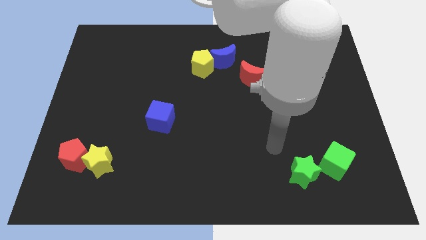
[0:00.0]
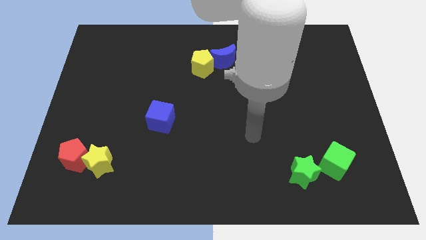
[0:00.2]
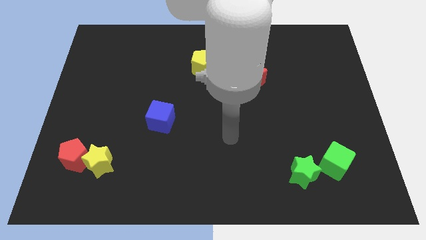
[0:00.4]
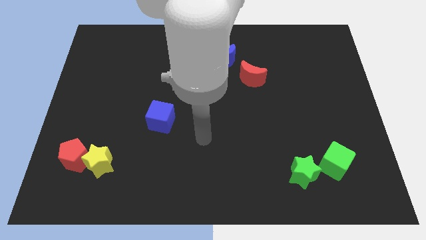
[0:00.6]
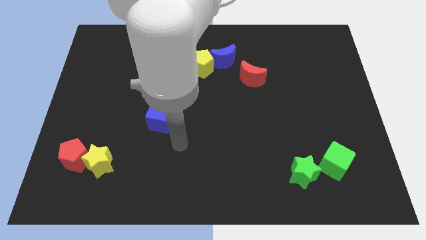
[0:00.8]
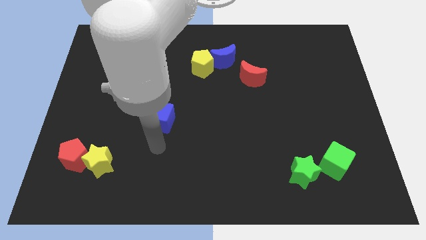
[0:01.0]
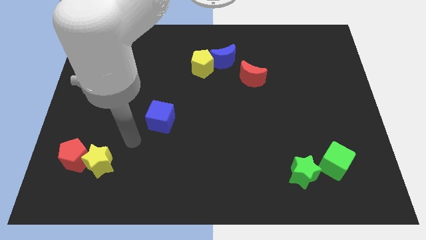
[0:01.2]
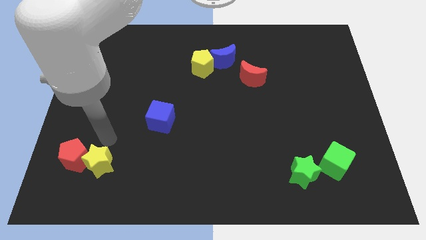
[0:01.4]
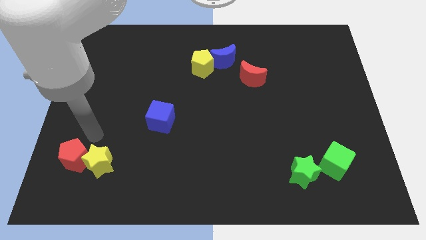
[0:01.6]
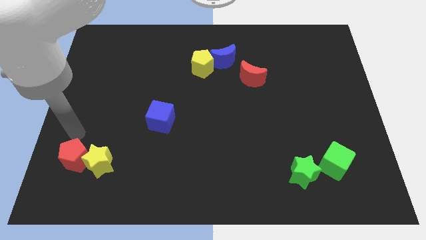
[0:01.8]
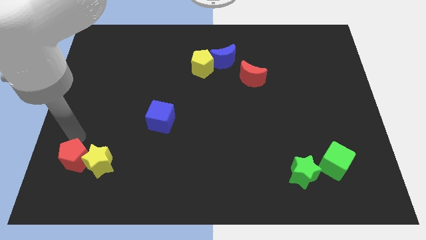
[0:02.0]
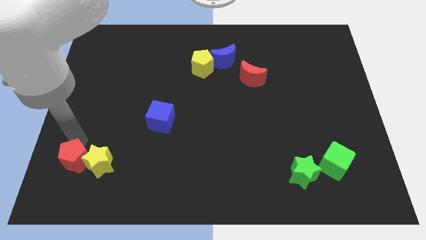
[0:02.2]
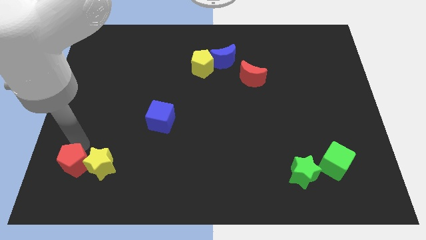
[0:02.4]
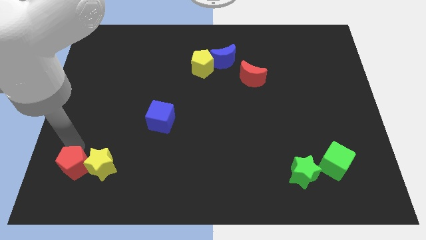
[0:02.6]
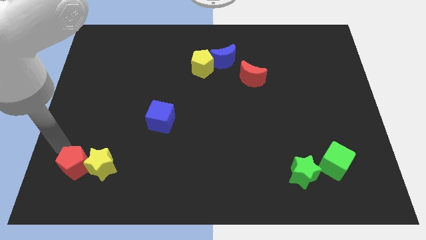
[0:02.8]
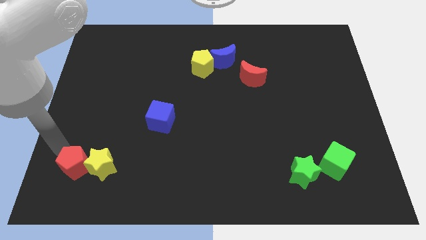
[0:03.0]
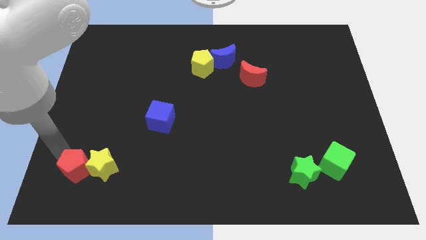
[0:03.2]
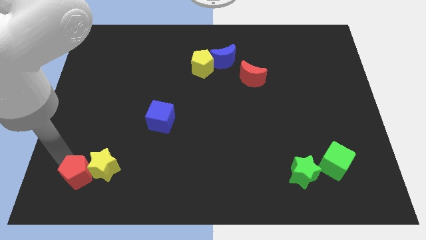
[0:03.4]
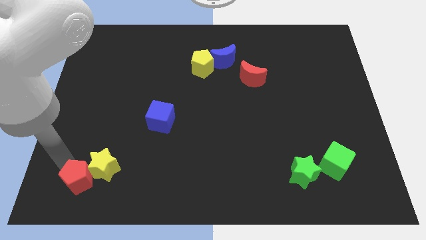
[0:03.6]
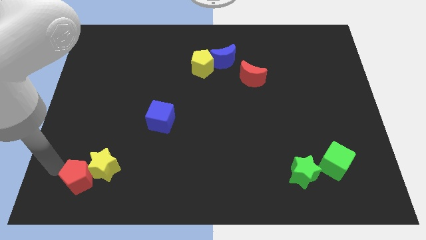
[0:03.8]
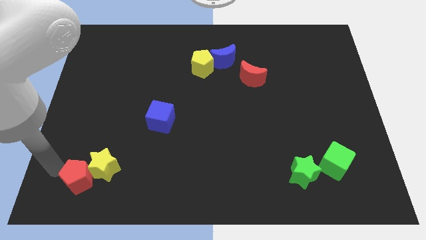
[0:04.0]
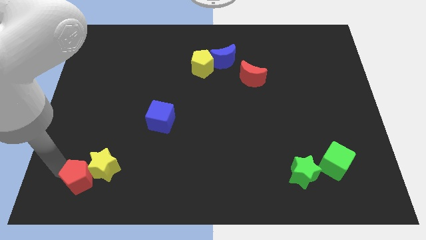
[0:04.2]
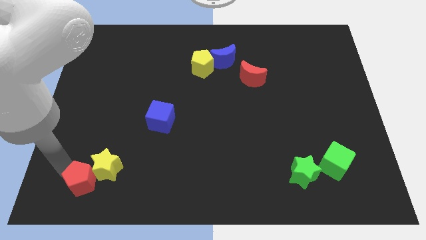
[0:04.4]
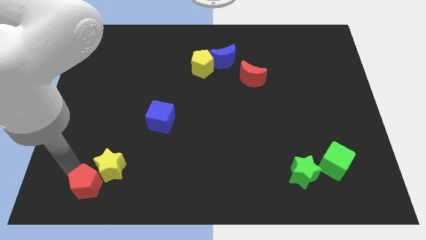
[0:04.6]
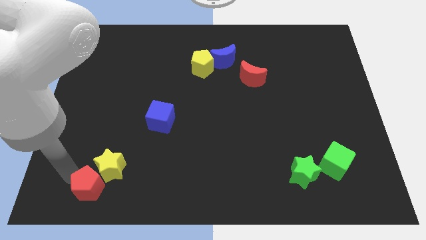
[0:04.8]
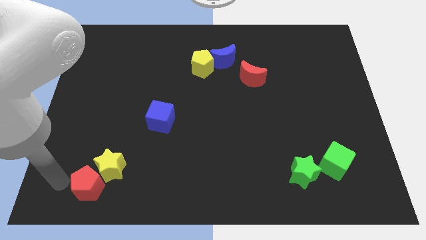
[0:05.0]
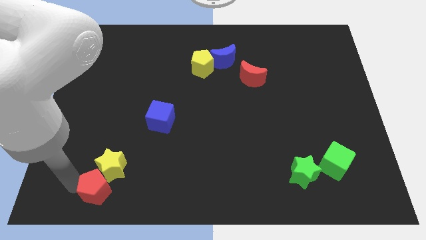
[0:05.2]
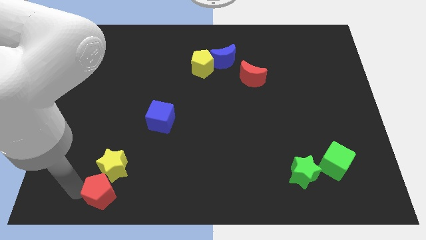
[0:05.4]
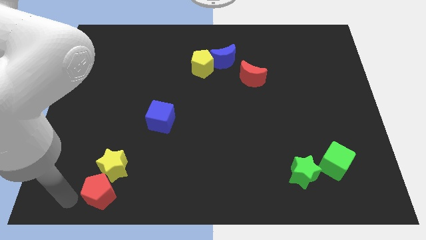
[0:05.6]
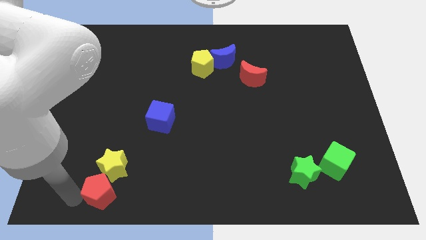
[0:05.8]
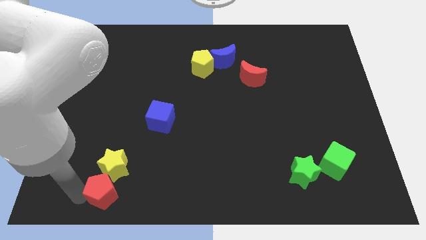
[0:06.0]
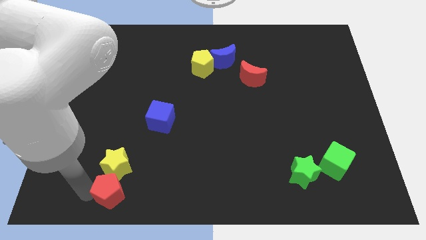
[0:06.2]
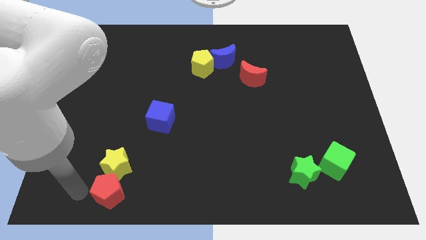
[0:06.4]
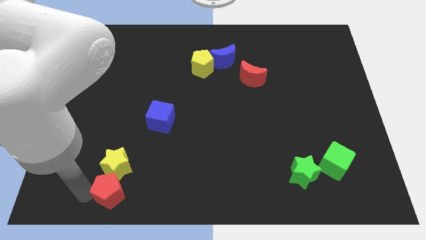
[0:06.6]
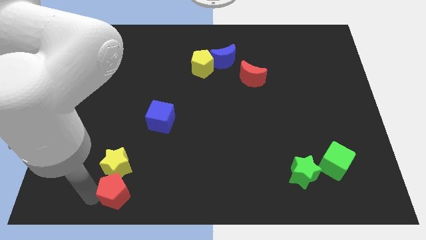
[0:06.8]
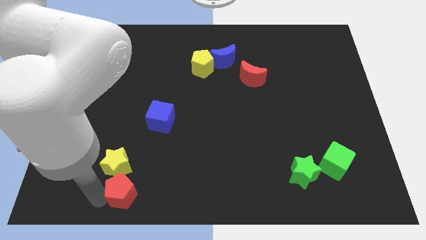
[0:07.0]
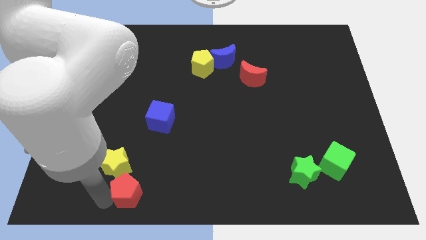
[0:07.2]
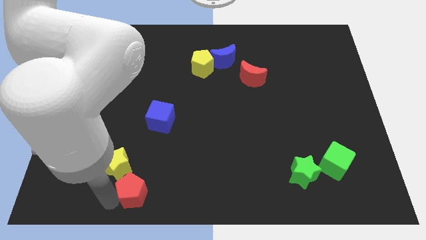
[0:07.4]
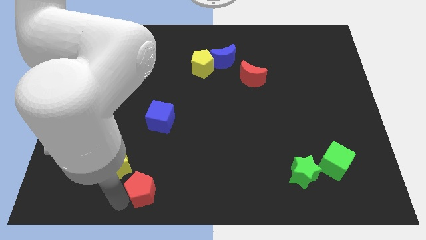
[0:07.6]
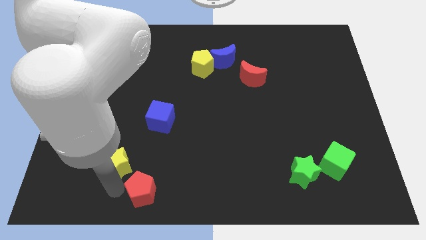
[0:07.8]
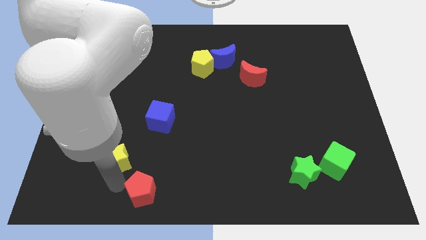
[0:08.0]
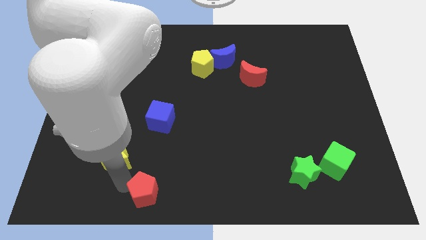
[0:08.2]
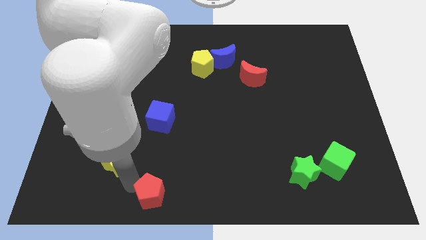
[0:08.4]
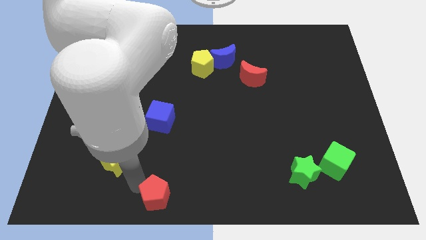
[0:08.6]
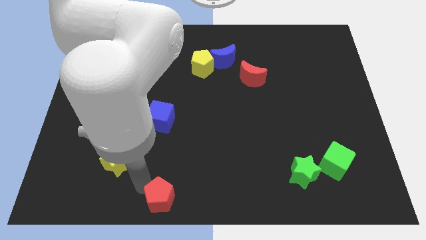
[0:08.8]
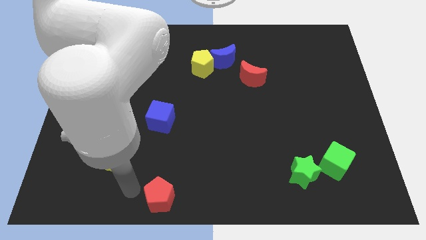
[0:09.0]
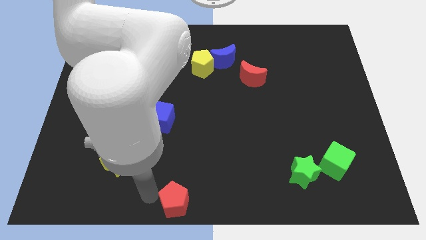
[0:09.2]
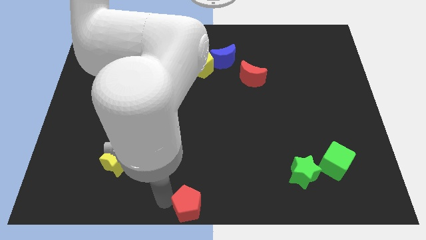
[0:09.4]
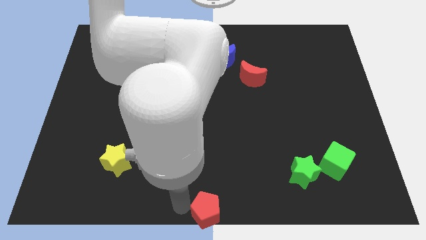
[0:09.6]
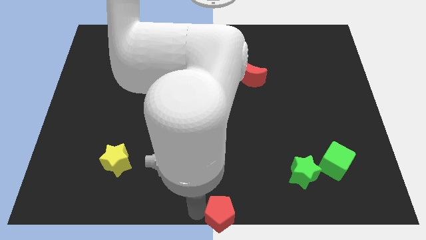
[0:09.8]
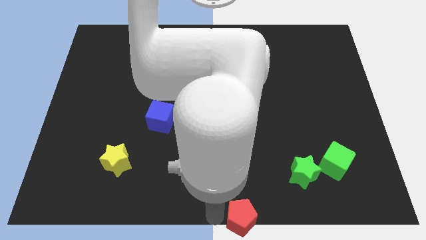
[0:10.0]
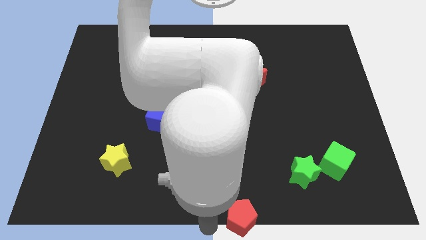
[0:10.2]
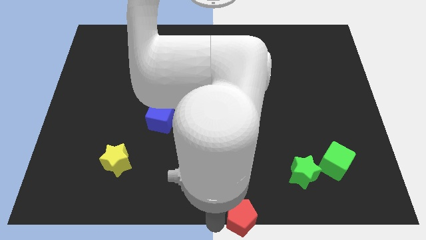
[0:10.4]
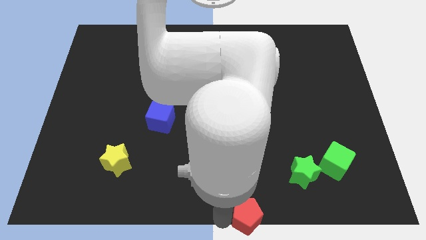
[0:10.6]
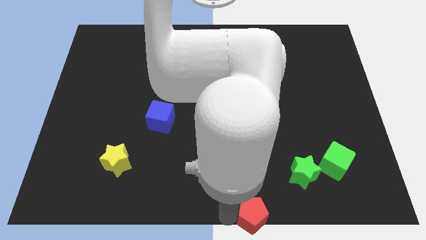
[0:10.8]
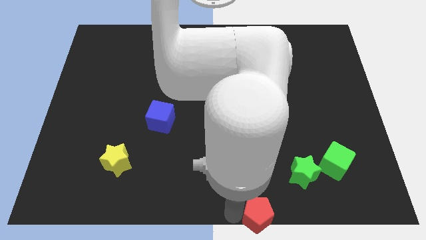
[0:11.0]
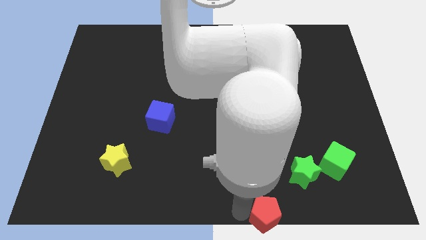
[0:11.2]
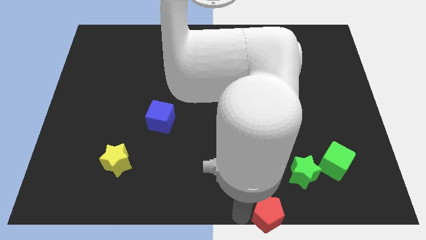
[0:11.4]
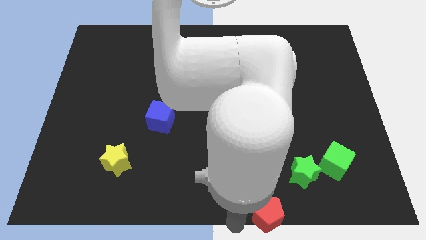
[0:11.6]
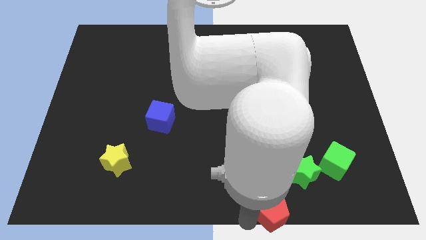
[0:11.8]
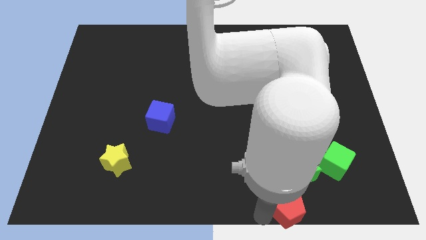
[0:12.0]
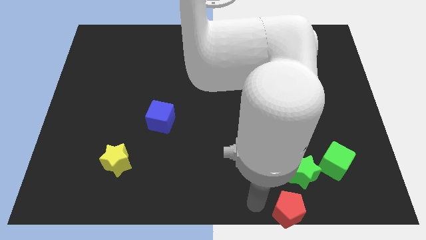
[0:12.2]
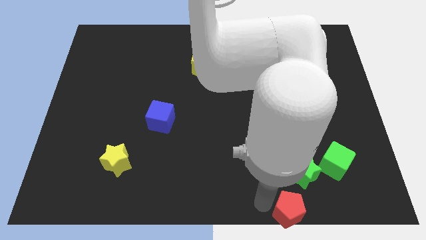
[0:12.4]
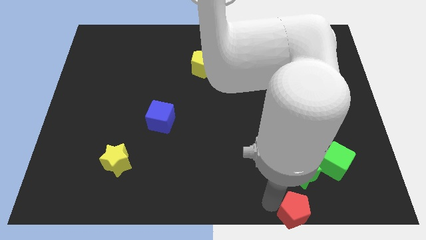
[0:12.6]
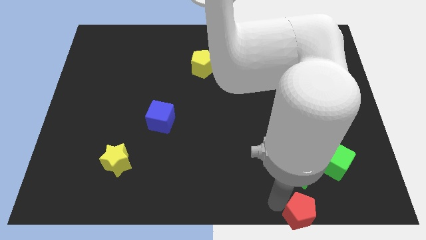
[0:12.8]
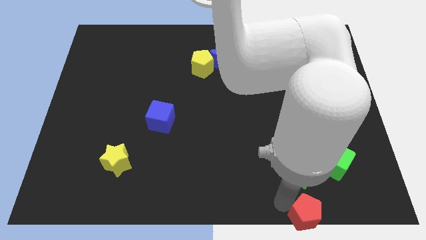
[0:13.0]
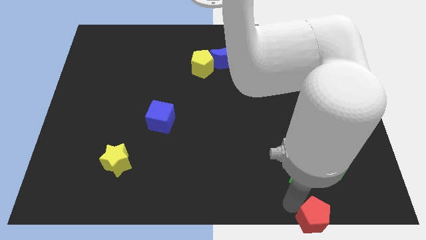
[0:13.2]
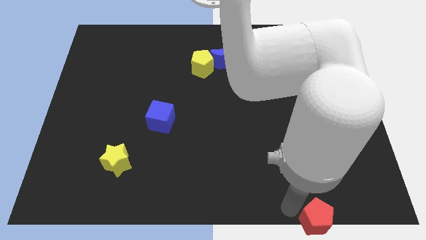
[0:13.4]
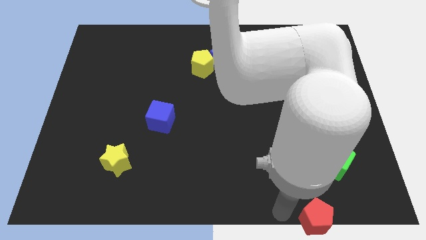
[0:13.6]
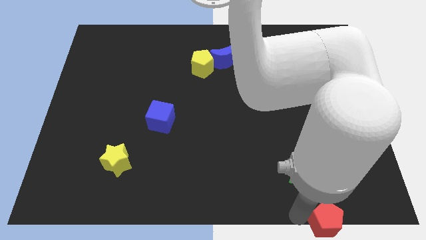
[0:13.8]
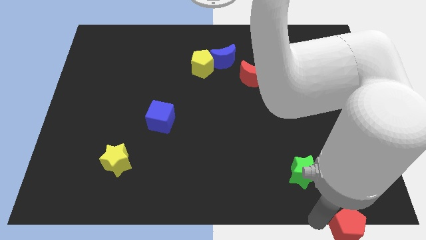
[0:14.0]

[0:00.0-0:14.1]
put the red pentagon to the bottom right corner

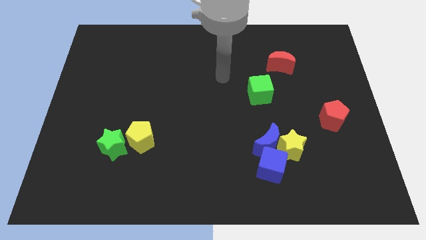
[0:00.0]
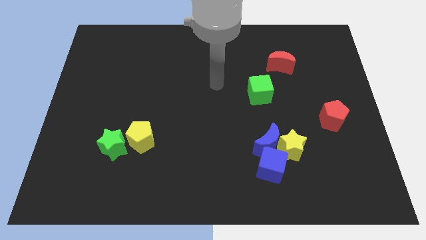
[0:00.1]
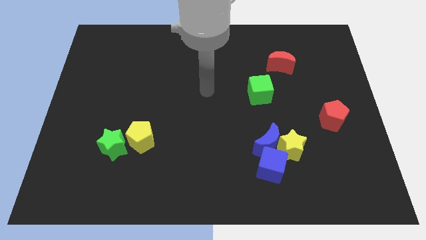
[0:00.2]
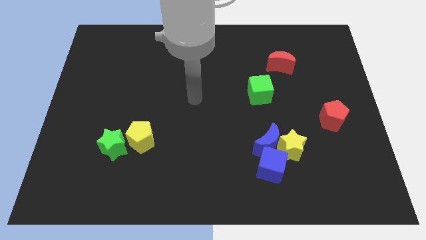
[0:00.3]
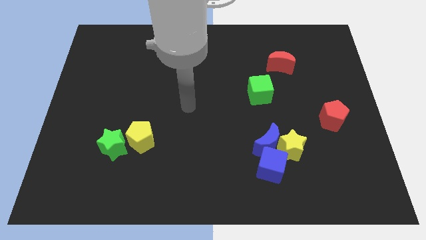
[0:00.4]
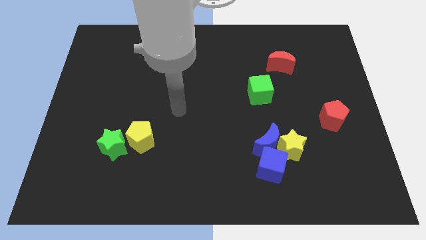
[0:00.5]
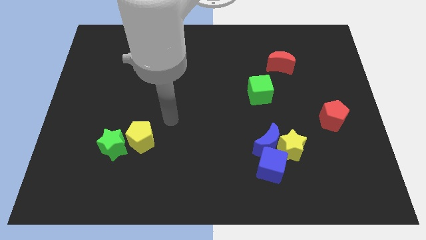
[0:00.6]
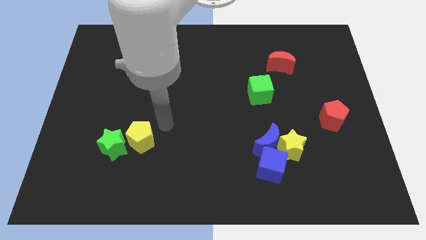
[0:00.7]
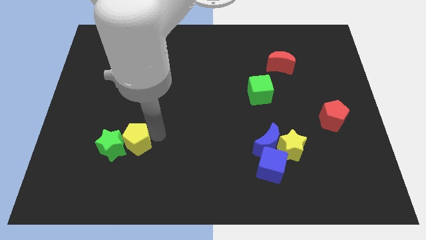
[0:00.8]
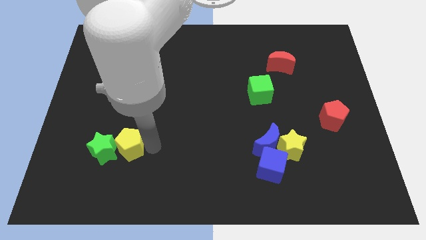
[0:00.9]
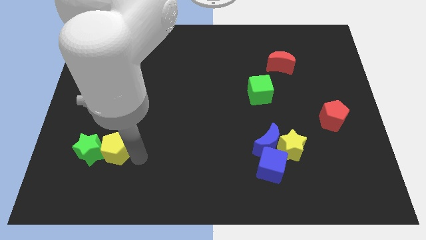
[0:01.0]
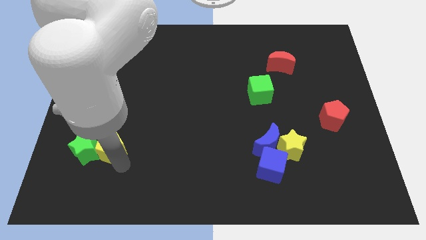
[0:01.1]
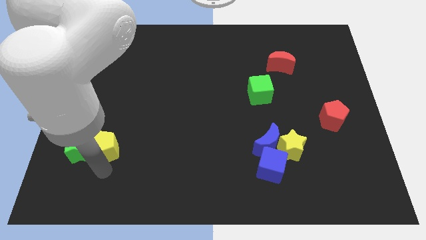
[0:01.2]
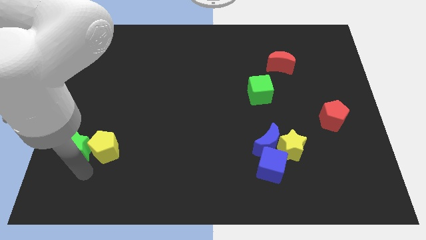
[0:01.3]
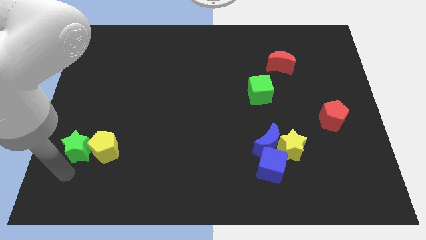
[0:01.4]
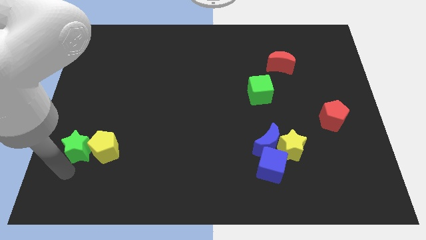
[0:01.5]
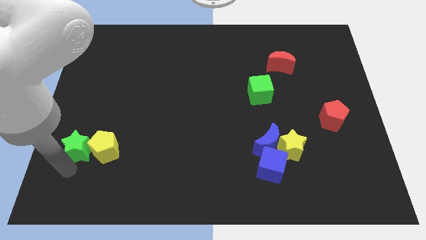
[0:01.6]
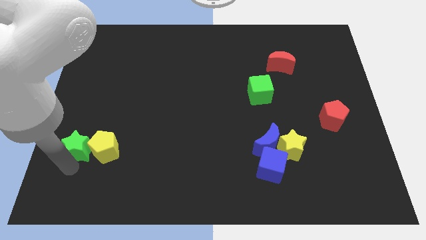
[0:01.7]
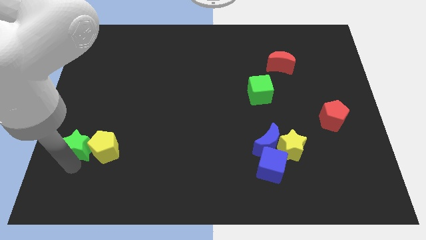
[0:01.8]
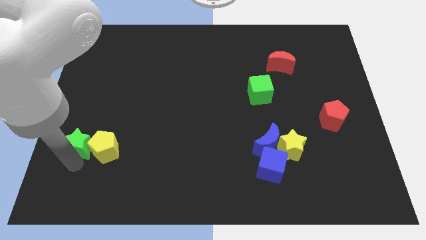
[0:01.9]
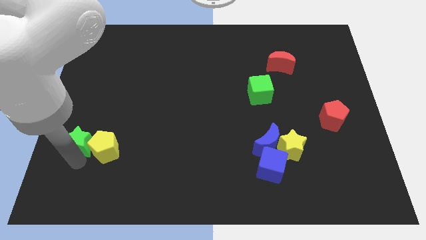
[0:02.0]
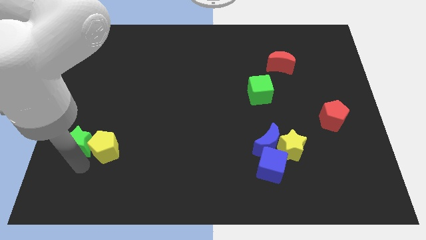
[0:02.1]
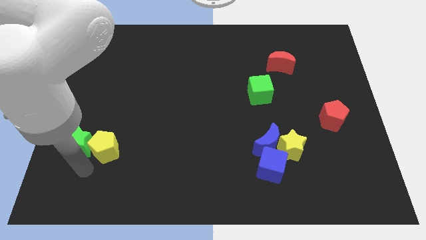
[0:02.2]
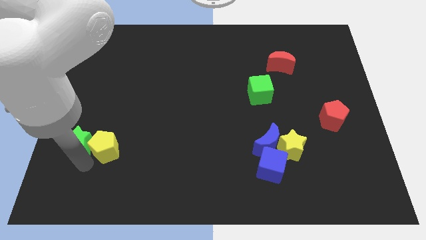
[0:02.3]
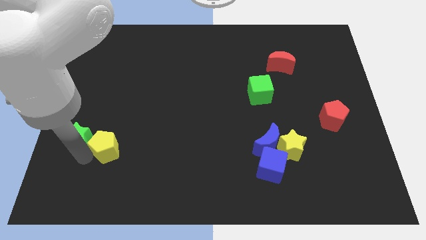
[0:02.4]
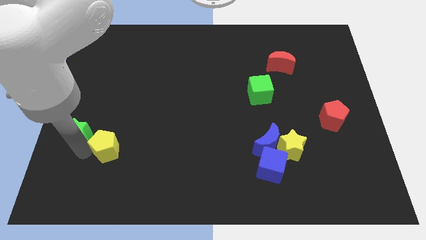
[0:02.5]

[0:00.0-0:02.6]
put the green star to the left side
